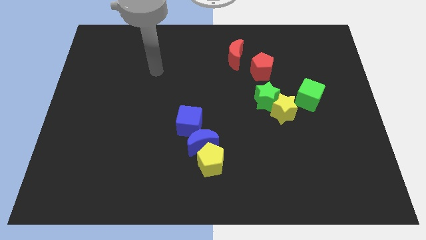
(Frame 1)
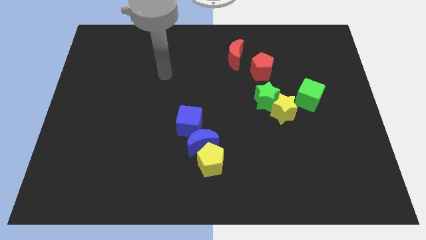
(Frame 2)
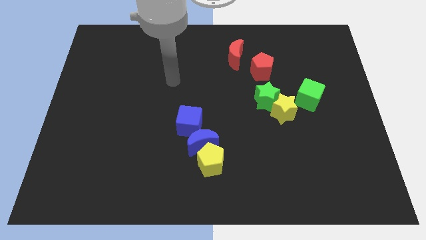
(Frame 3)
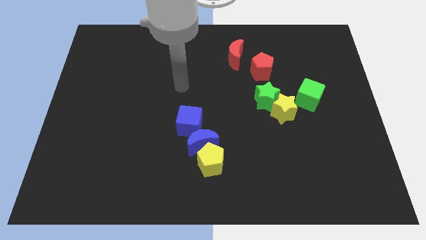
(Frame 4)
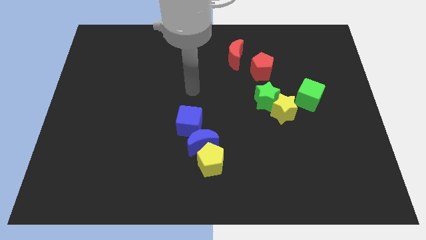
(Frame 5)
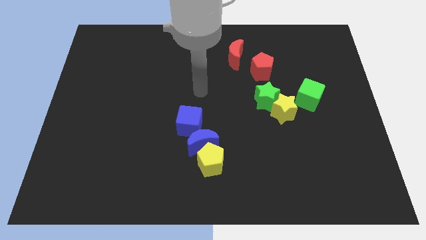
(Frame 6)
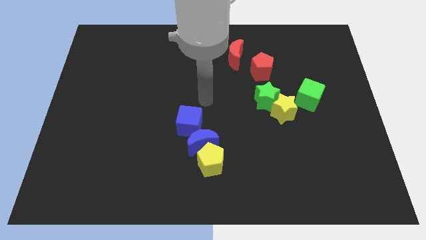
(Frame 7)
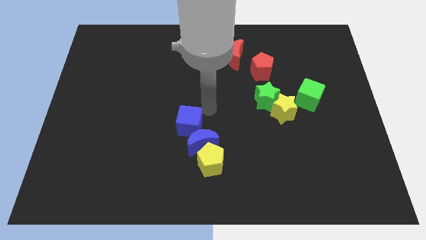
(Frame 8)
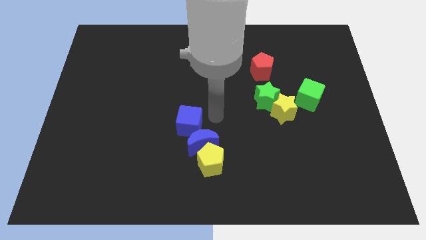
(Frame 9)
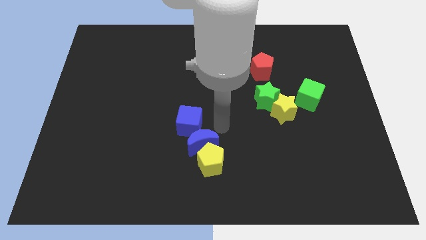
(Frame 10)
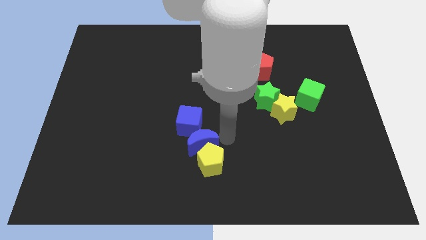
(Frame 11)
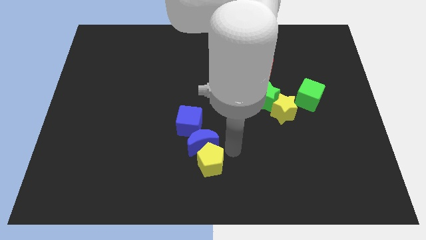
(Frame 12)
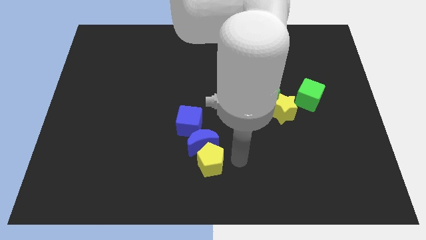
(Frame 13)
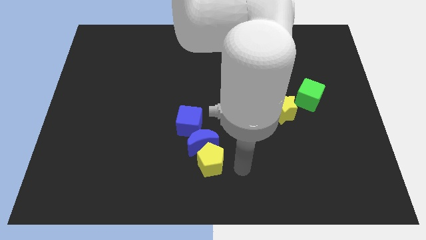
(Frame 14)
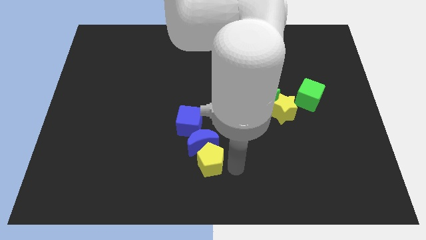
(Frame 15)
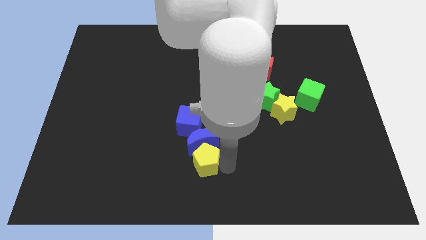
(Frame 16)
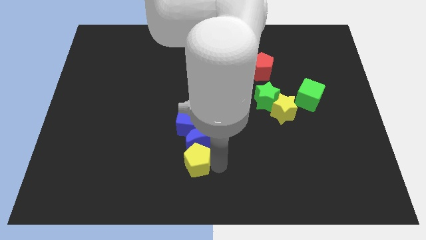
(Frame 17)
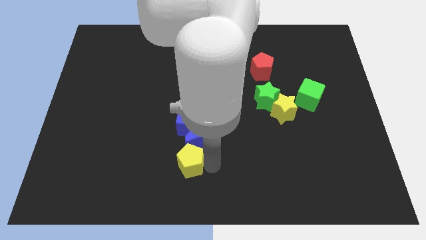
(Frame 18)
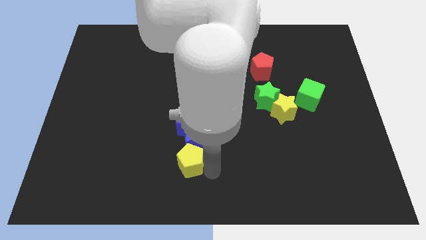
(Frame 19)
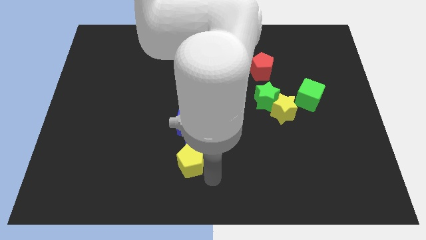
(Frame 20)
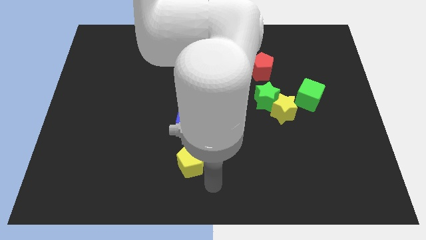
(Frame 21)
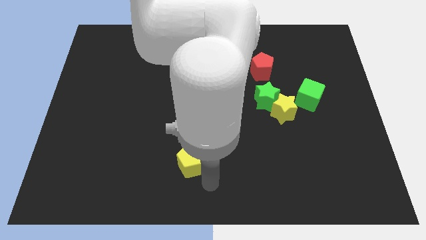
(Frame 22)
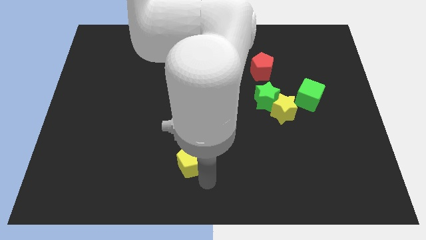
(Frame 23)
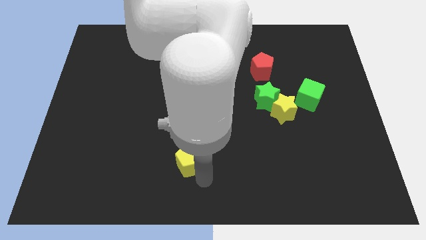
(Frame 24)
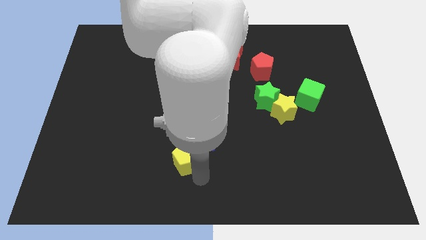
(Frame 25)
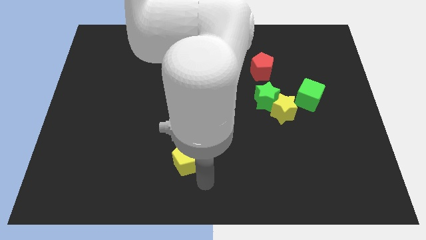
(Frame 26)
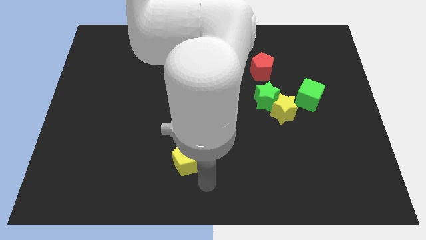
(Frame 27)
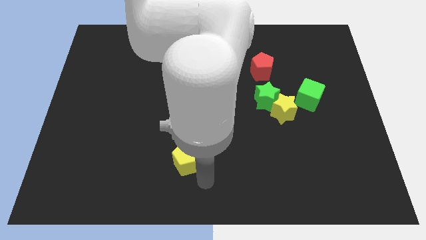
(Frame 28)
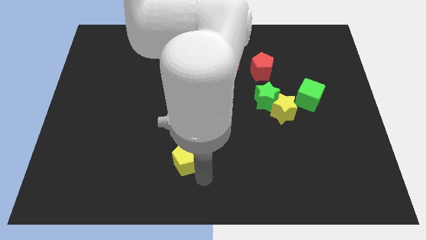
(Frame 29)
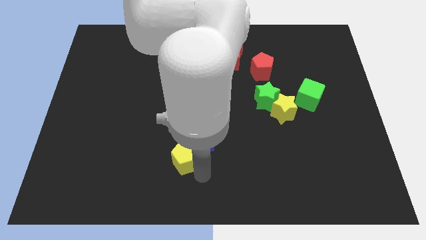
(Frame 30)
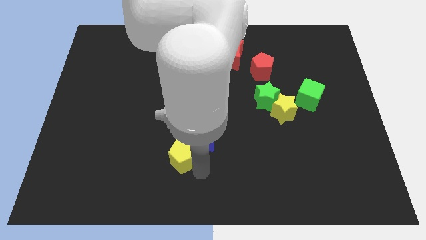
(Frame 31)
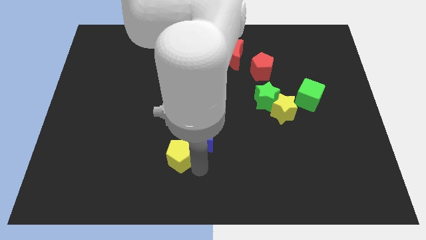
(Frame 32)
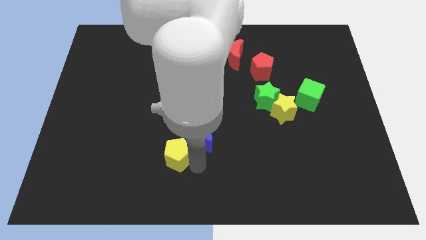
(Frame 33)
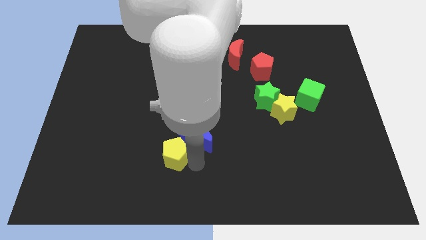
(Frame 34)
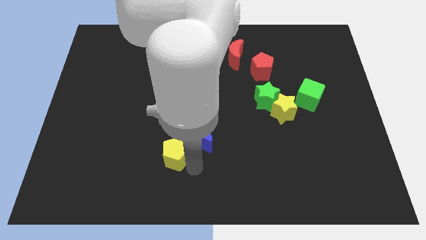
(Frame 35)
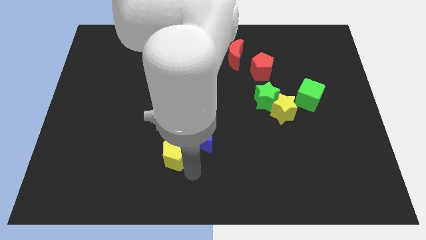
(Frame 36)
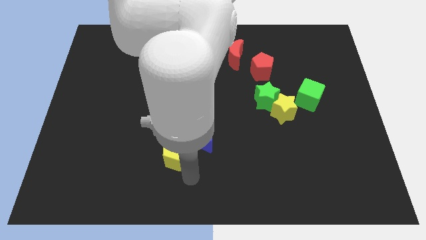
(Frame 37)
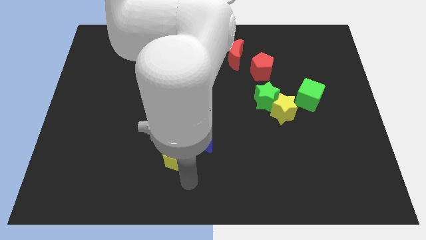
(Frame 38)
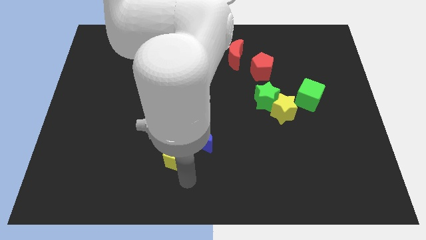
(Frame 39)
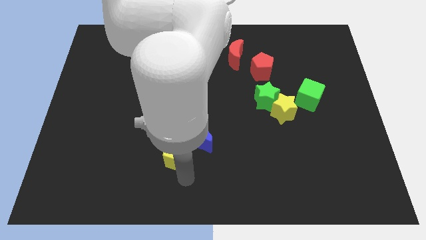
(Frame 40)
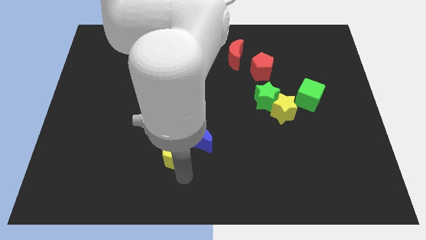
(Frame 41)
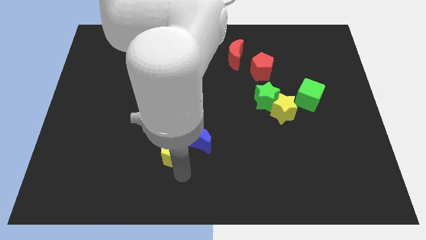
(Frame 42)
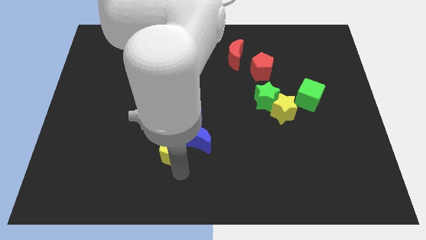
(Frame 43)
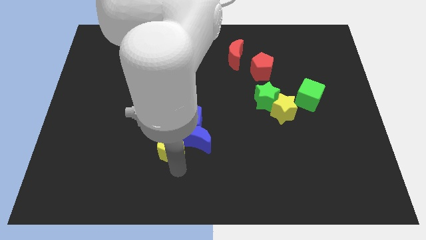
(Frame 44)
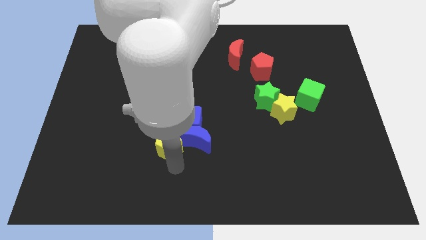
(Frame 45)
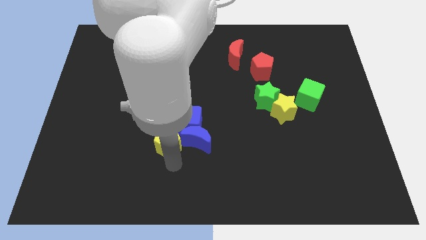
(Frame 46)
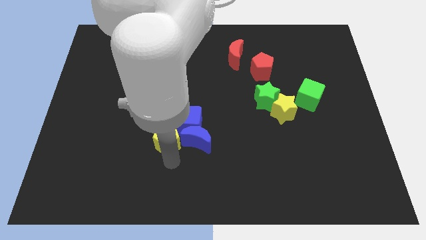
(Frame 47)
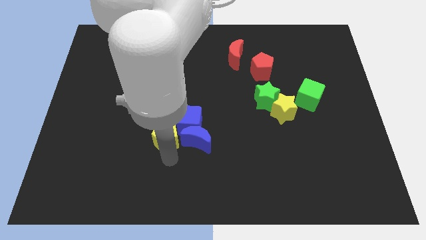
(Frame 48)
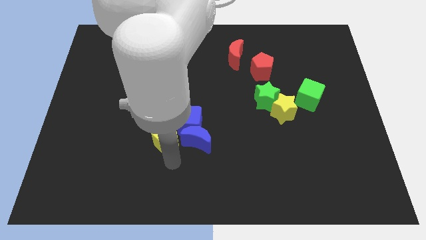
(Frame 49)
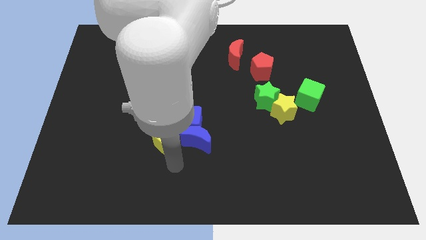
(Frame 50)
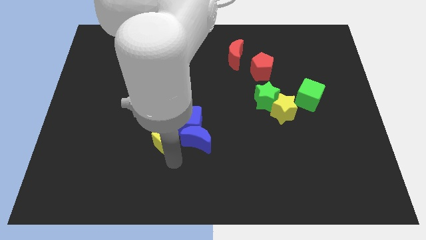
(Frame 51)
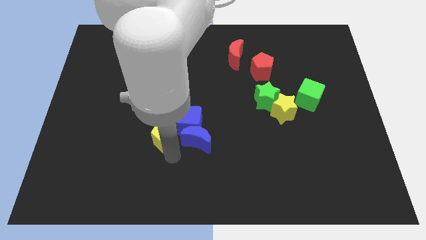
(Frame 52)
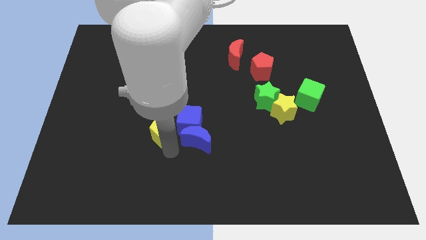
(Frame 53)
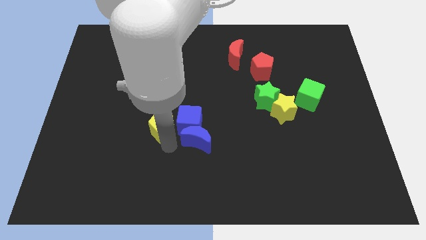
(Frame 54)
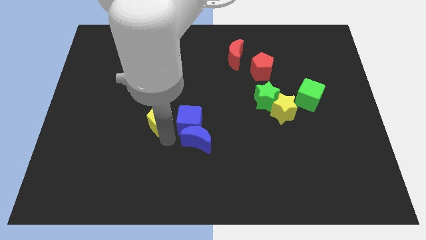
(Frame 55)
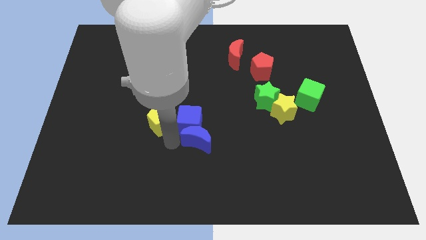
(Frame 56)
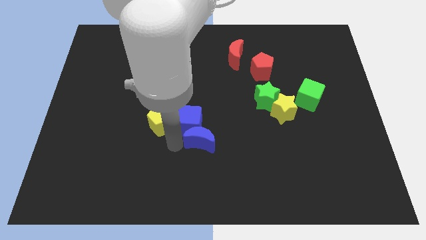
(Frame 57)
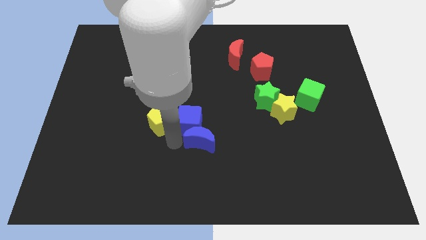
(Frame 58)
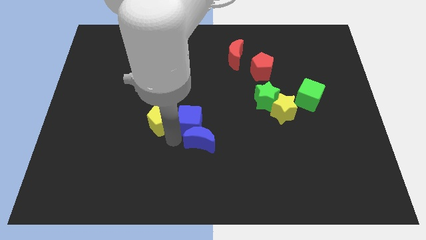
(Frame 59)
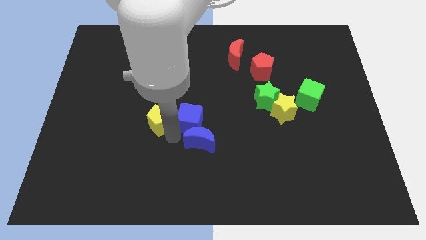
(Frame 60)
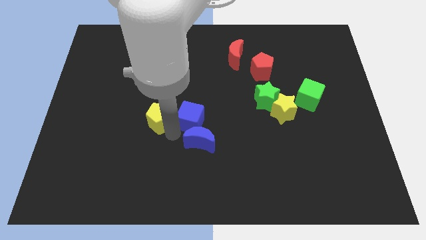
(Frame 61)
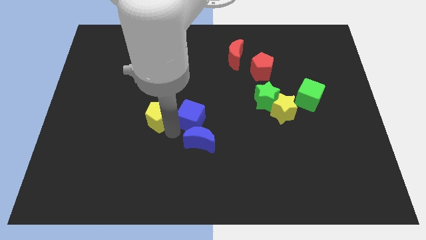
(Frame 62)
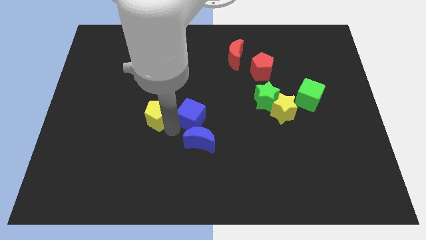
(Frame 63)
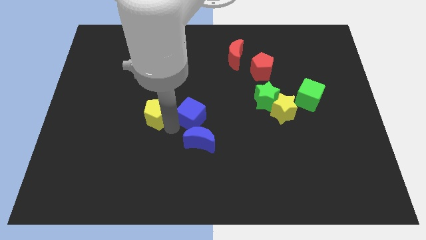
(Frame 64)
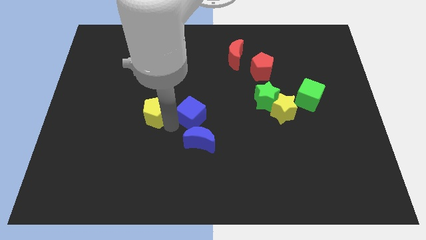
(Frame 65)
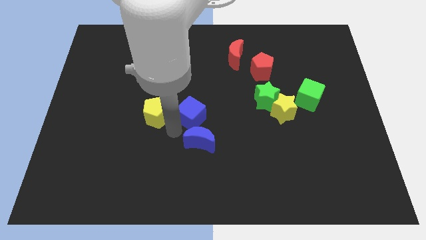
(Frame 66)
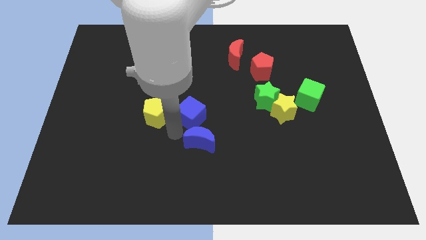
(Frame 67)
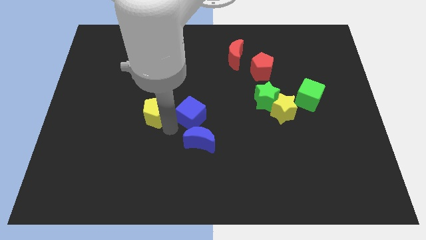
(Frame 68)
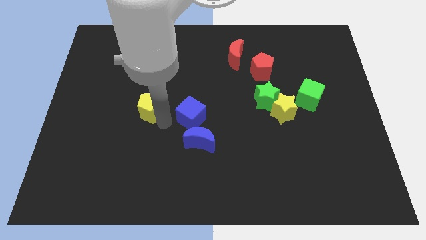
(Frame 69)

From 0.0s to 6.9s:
push the yellow pentagon upwards and left diagonally

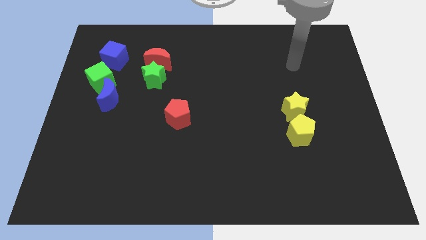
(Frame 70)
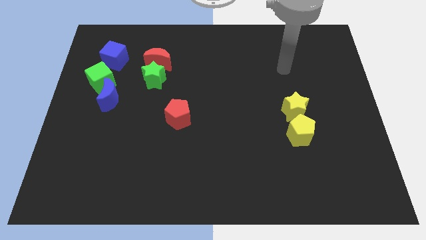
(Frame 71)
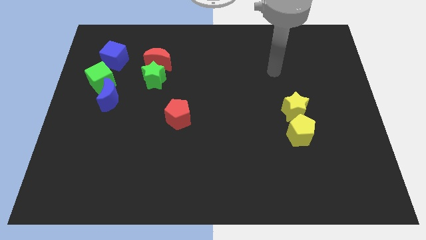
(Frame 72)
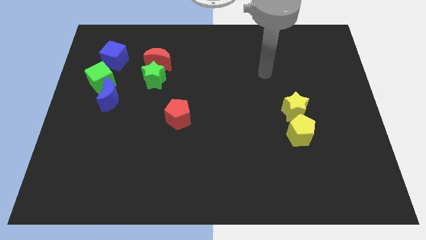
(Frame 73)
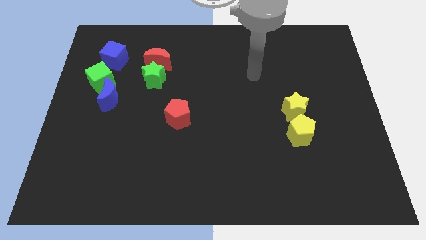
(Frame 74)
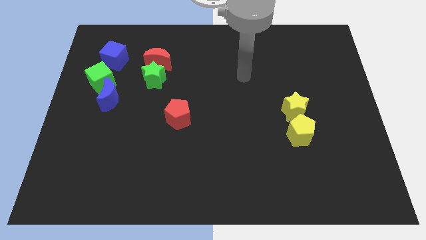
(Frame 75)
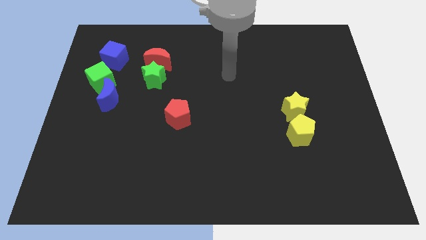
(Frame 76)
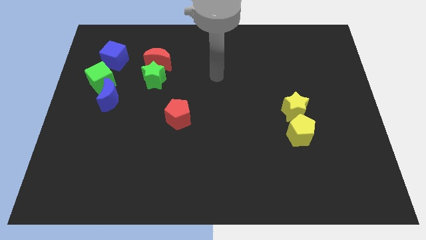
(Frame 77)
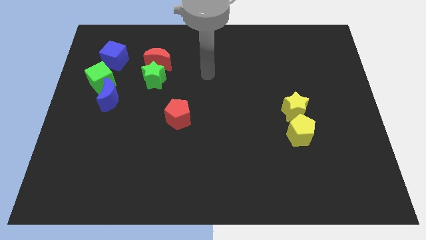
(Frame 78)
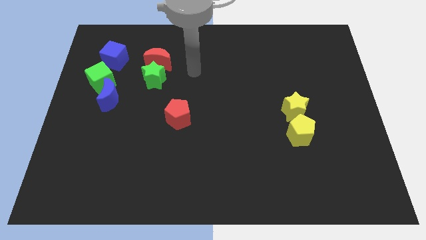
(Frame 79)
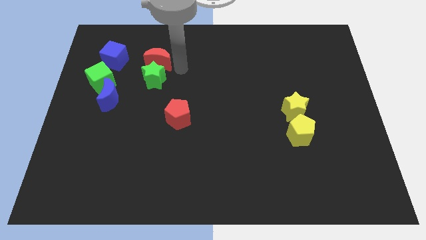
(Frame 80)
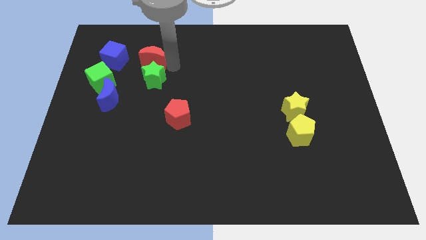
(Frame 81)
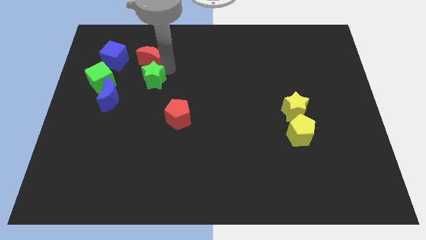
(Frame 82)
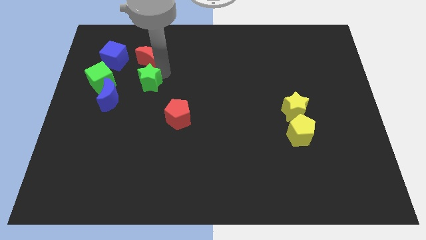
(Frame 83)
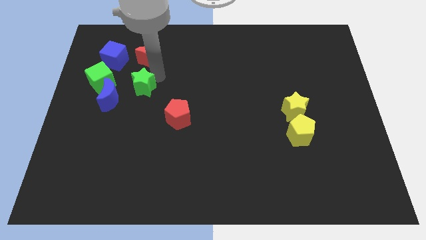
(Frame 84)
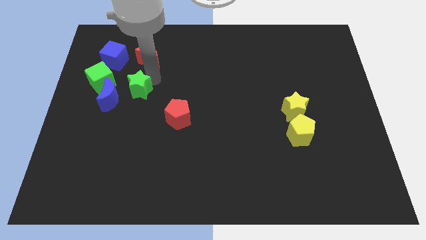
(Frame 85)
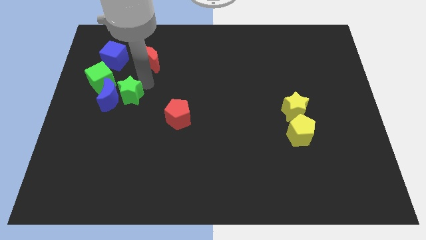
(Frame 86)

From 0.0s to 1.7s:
slightly push the green star downwards and then left
